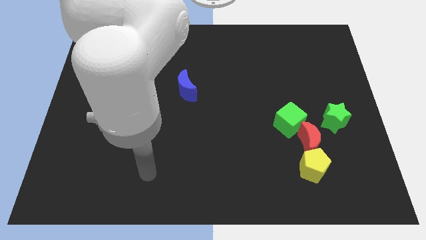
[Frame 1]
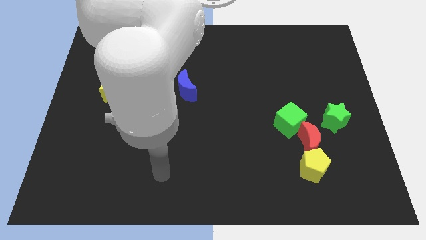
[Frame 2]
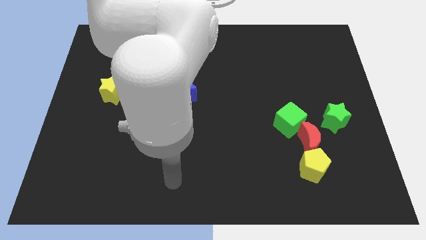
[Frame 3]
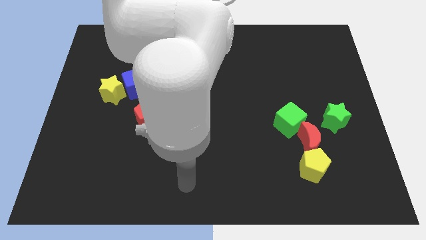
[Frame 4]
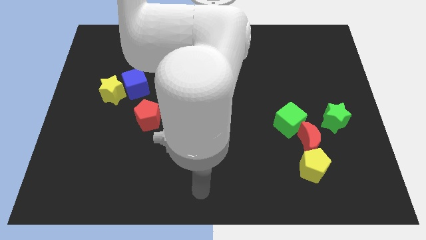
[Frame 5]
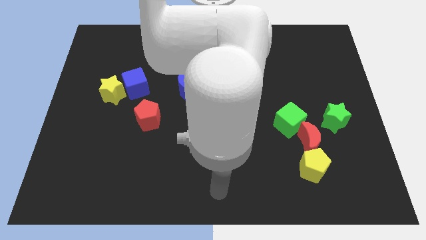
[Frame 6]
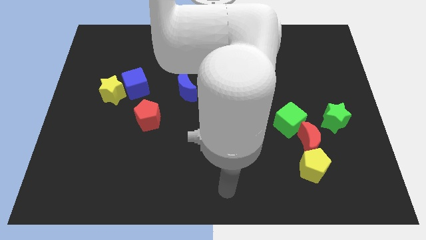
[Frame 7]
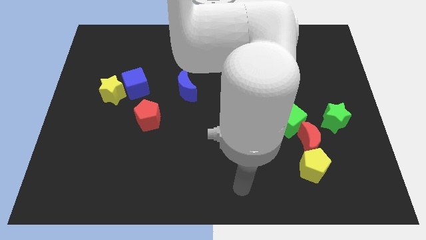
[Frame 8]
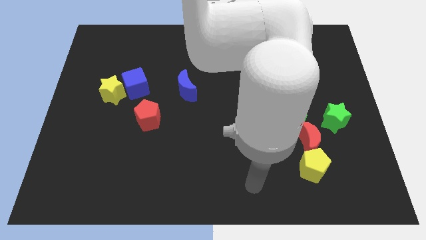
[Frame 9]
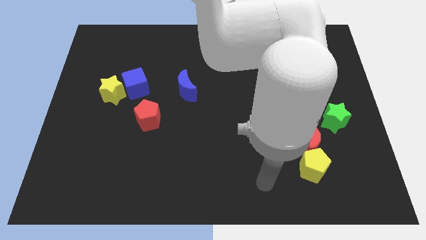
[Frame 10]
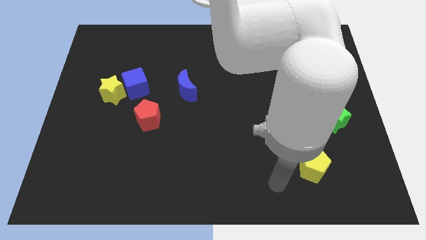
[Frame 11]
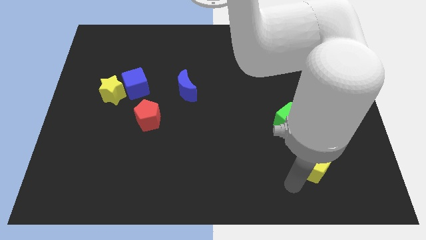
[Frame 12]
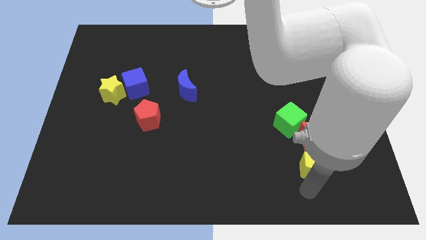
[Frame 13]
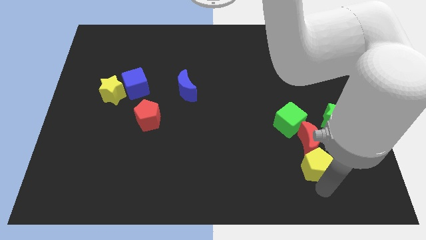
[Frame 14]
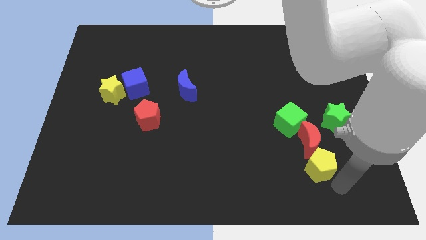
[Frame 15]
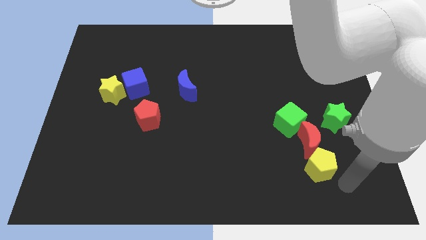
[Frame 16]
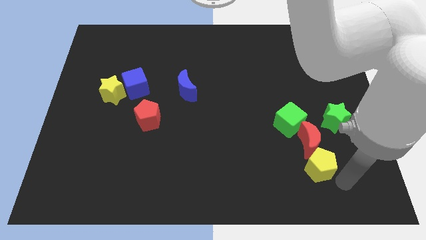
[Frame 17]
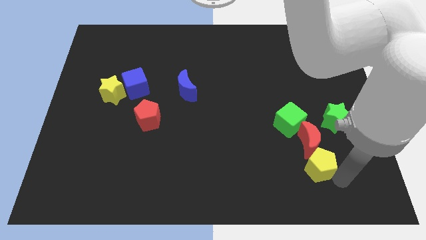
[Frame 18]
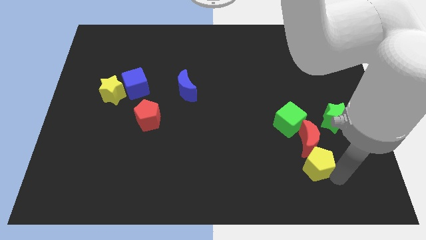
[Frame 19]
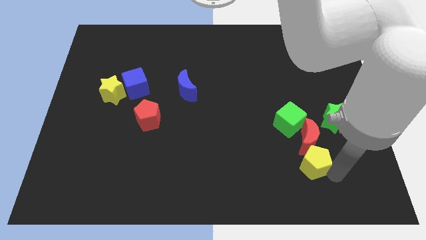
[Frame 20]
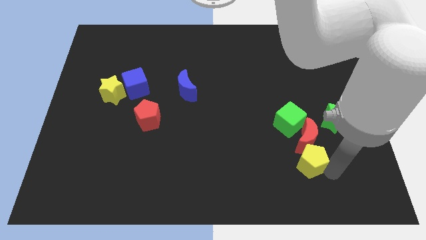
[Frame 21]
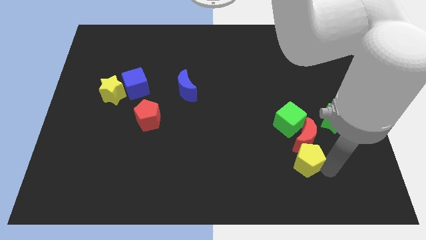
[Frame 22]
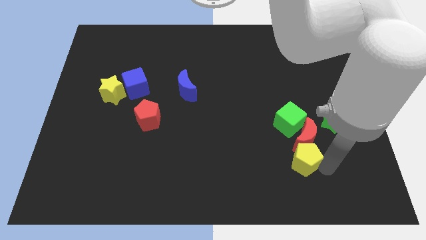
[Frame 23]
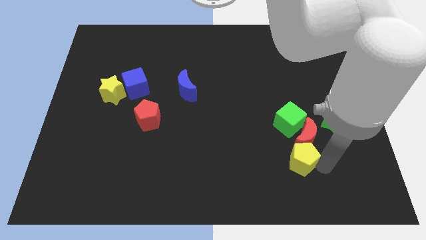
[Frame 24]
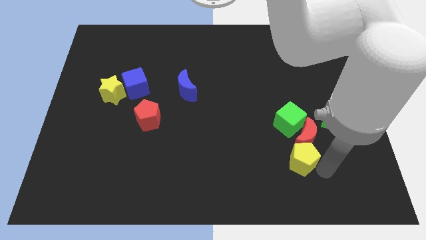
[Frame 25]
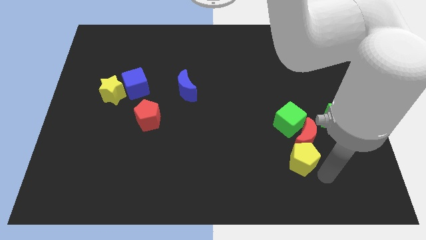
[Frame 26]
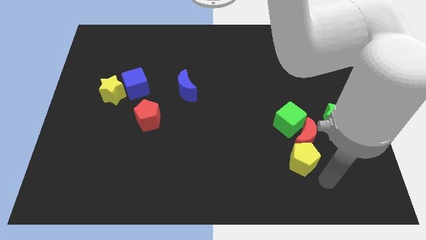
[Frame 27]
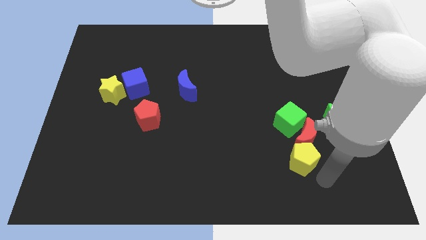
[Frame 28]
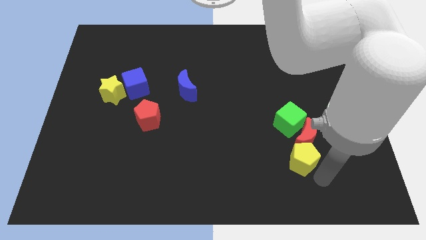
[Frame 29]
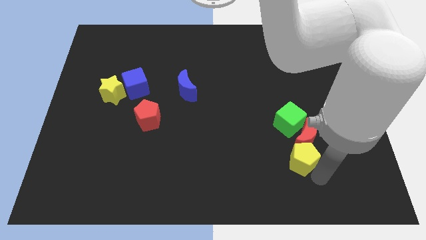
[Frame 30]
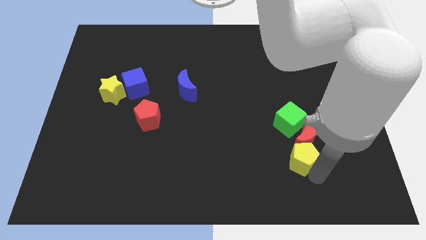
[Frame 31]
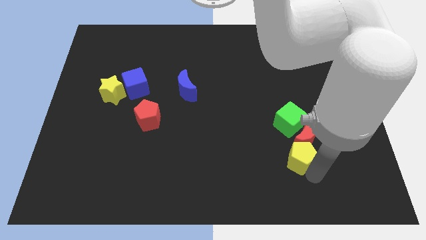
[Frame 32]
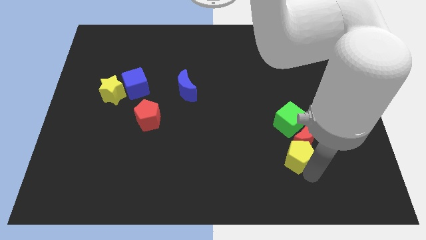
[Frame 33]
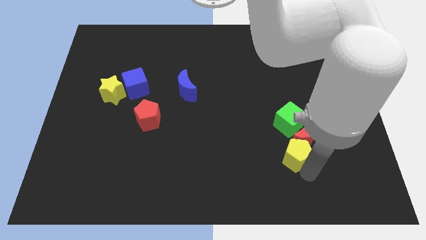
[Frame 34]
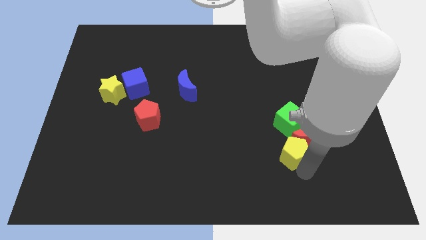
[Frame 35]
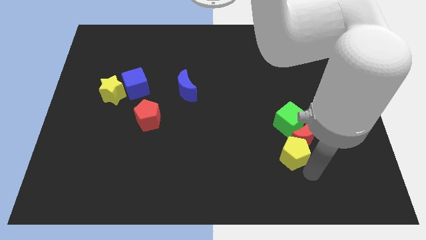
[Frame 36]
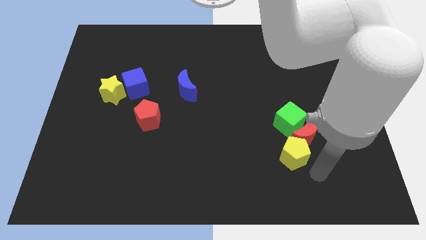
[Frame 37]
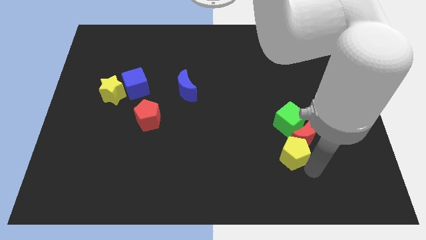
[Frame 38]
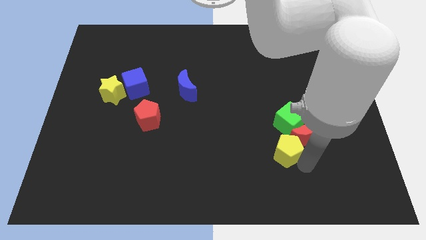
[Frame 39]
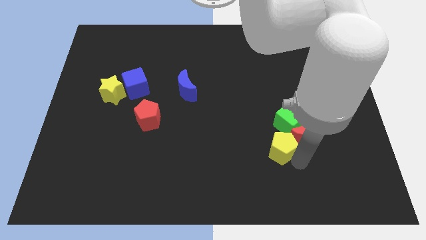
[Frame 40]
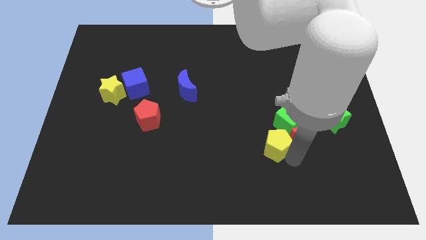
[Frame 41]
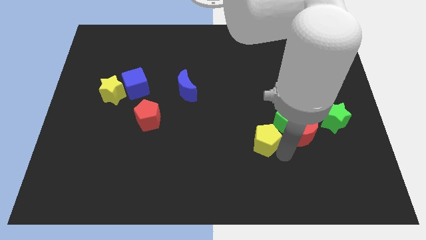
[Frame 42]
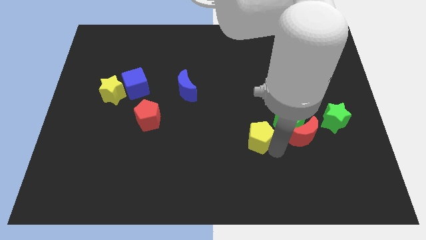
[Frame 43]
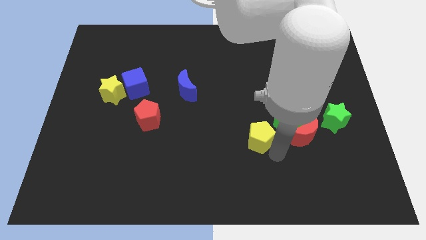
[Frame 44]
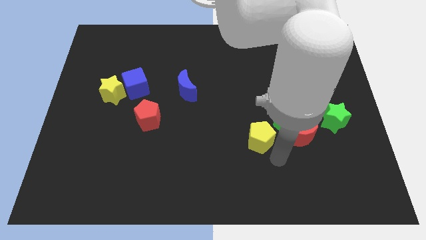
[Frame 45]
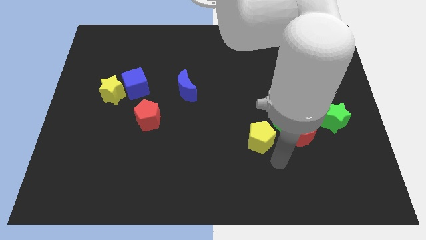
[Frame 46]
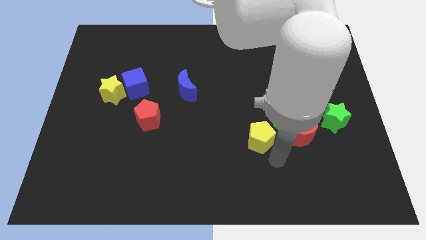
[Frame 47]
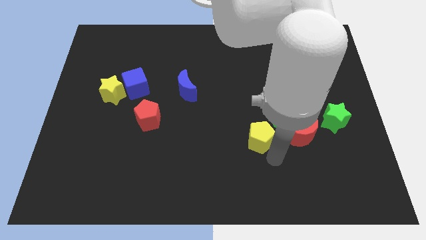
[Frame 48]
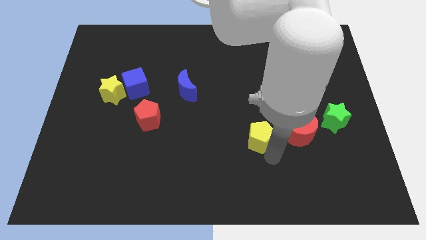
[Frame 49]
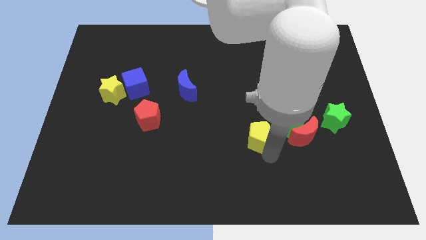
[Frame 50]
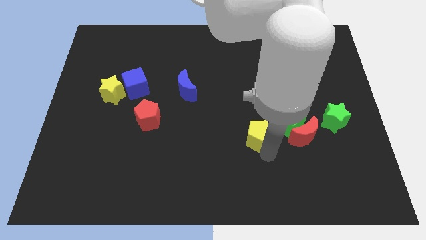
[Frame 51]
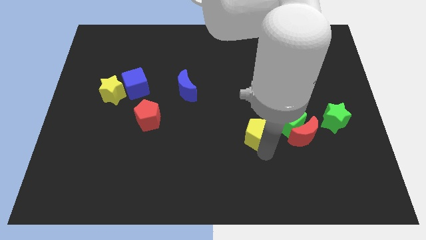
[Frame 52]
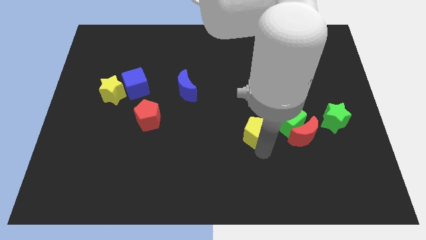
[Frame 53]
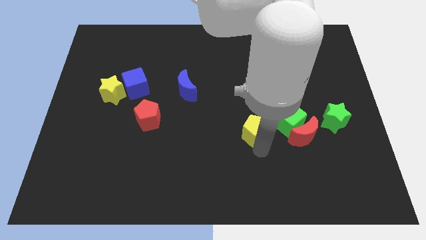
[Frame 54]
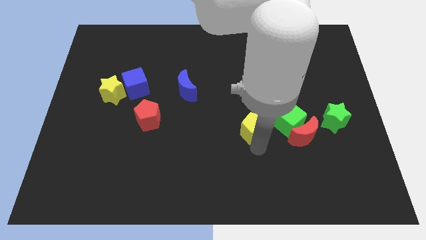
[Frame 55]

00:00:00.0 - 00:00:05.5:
slide the yellow pentagon to the center
